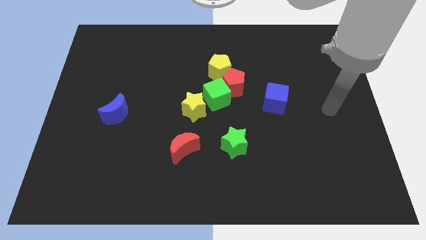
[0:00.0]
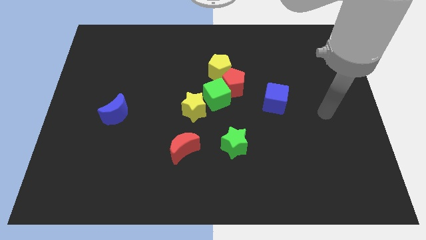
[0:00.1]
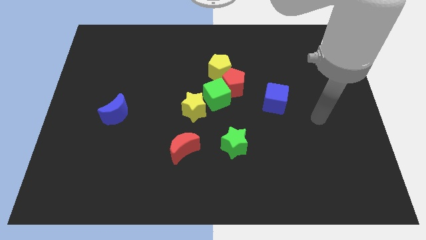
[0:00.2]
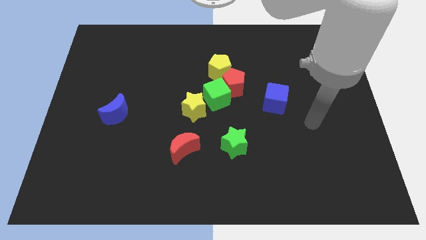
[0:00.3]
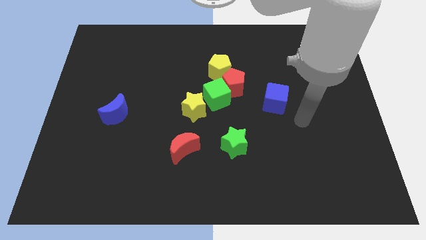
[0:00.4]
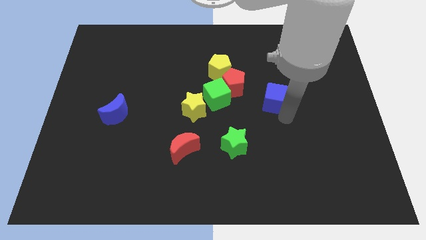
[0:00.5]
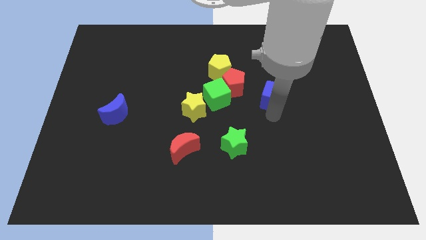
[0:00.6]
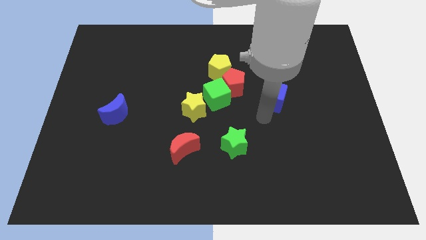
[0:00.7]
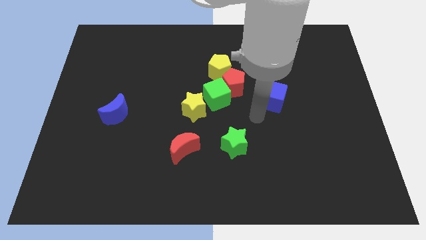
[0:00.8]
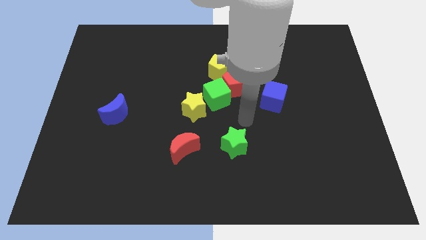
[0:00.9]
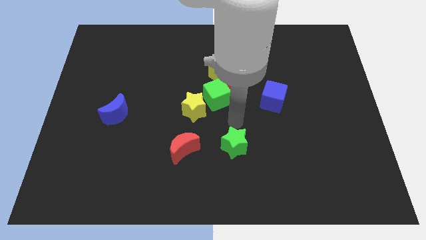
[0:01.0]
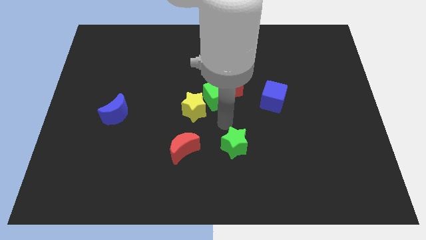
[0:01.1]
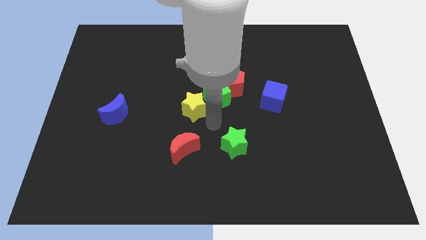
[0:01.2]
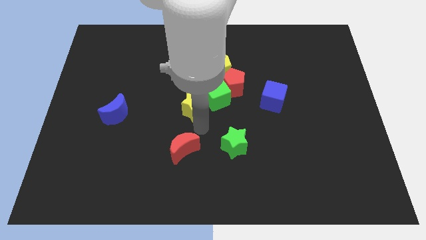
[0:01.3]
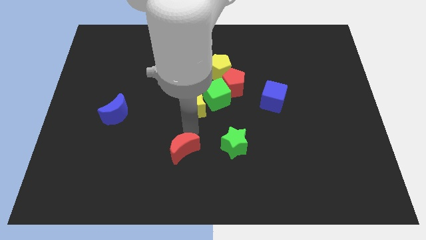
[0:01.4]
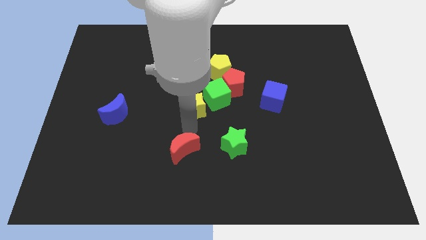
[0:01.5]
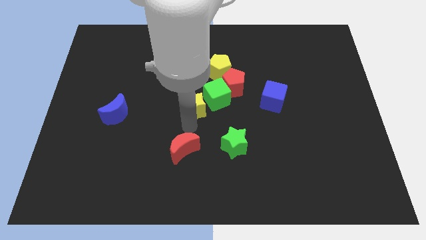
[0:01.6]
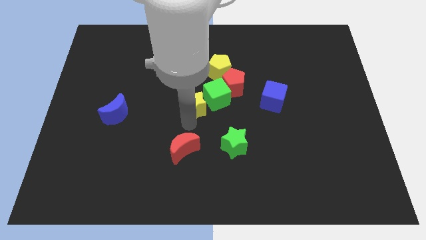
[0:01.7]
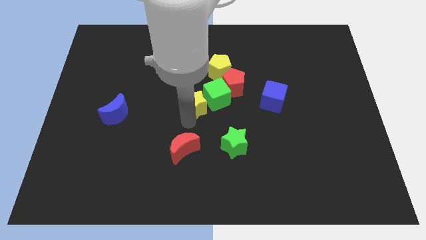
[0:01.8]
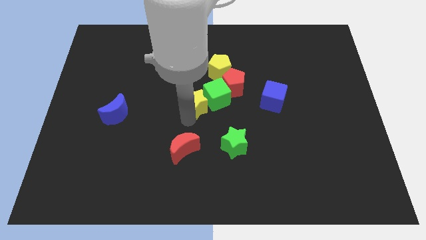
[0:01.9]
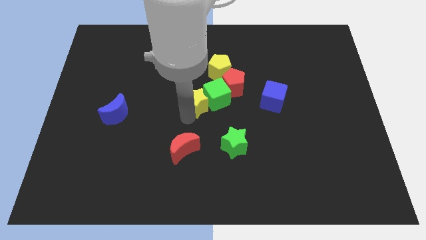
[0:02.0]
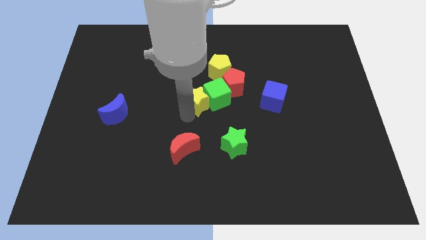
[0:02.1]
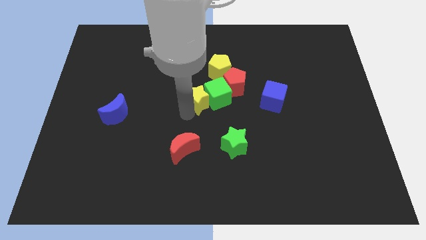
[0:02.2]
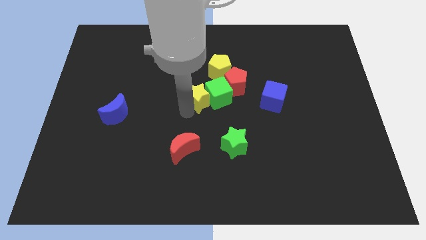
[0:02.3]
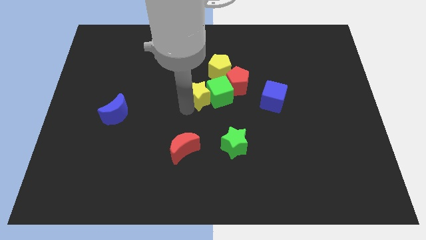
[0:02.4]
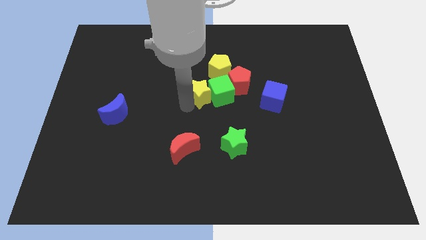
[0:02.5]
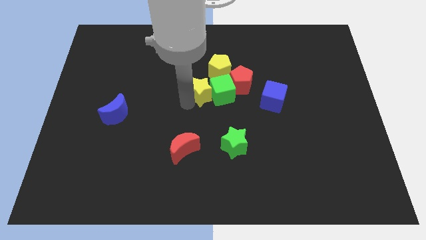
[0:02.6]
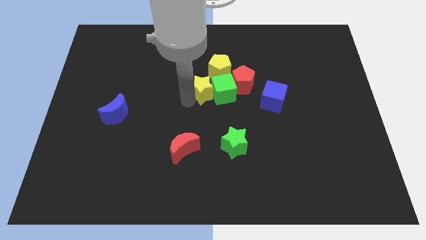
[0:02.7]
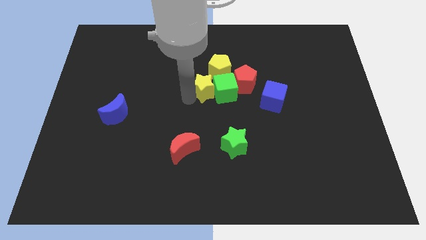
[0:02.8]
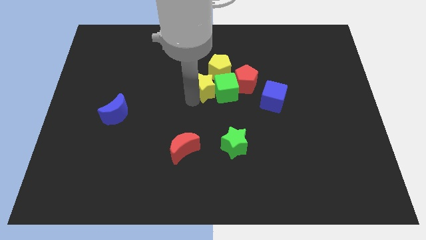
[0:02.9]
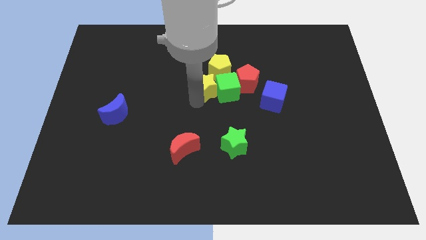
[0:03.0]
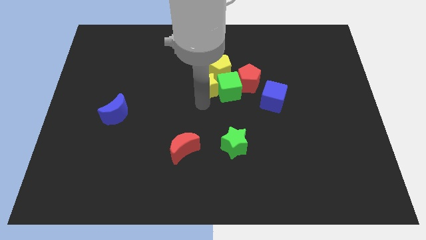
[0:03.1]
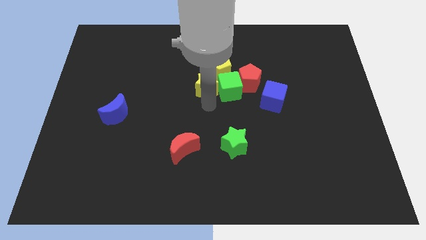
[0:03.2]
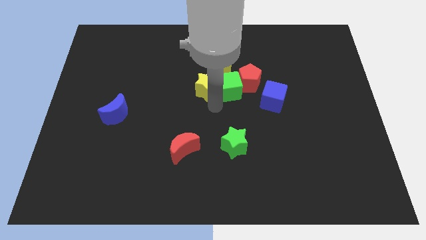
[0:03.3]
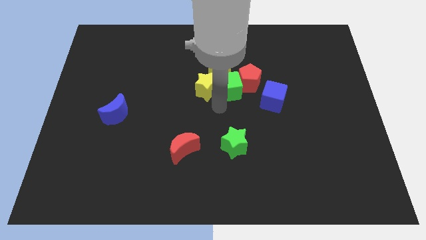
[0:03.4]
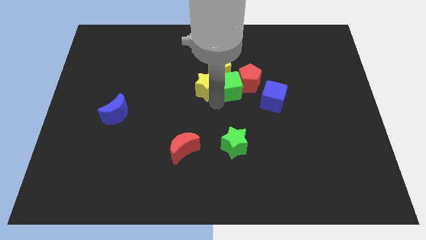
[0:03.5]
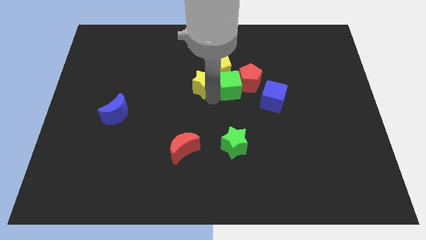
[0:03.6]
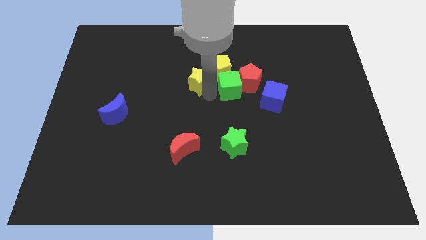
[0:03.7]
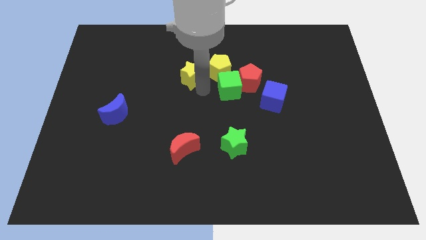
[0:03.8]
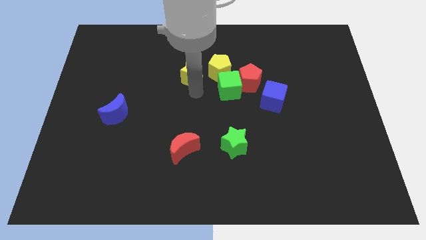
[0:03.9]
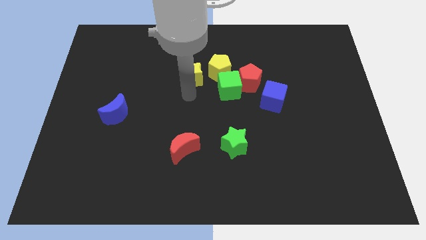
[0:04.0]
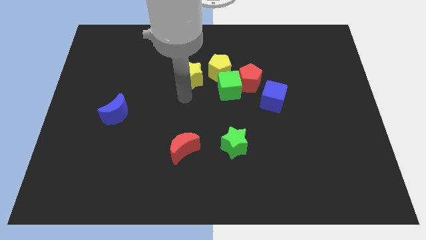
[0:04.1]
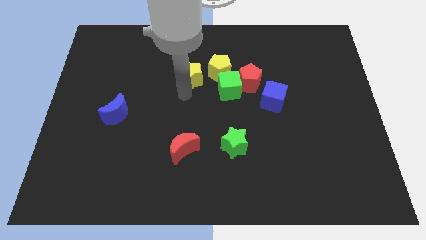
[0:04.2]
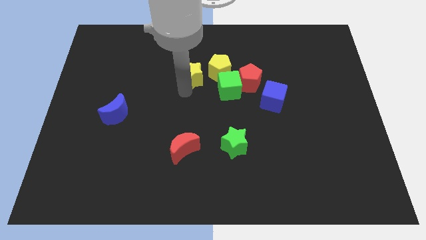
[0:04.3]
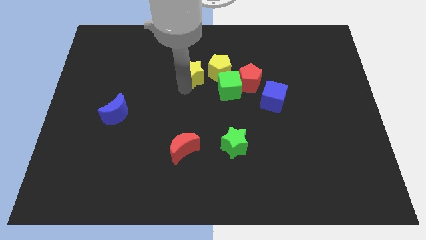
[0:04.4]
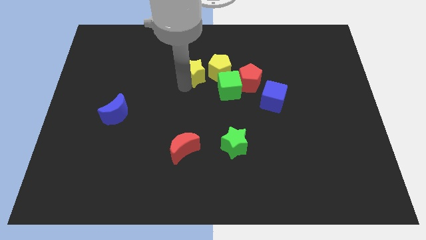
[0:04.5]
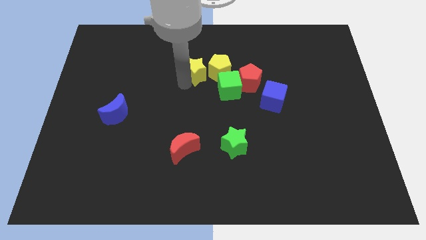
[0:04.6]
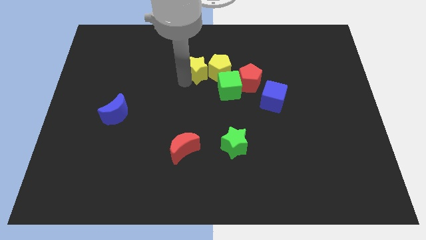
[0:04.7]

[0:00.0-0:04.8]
move the yellow star to the top left side of the yellow pentagon

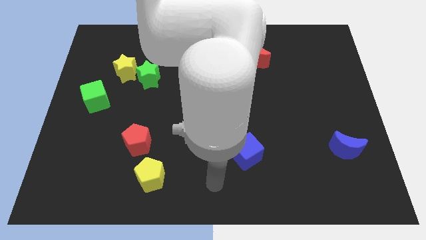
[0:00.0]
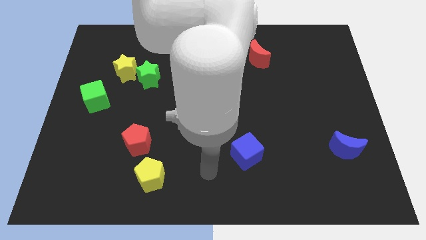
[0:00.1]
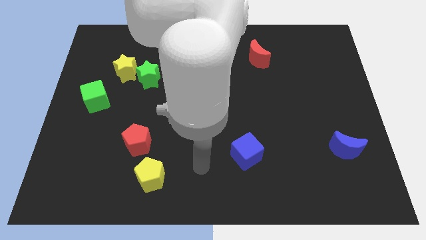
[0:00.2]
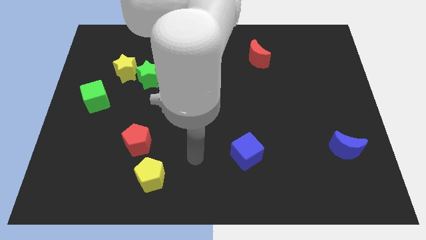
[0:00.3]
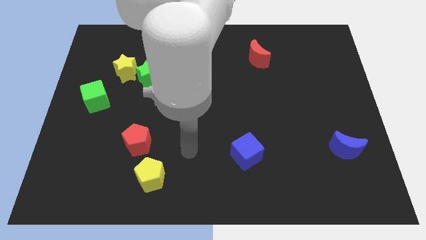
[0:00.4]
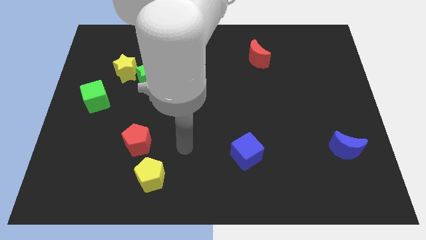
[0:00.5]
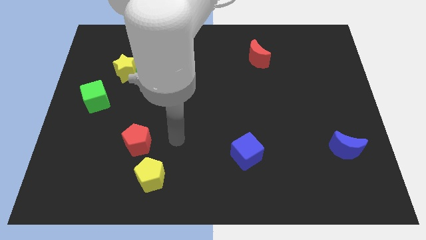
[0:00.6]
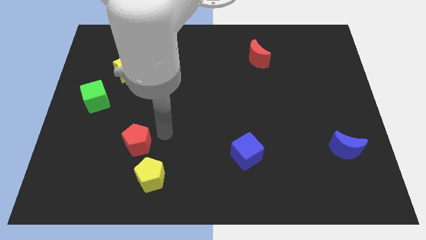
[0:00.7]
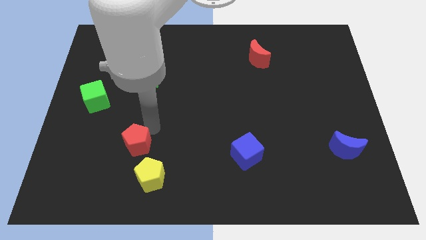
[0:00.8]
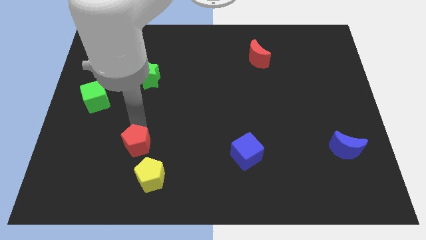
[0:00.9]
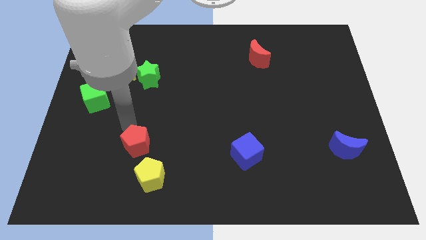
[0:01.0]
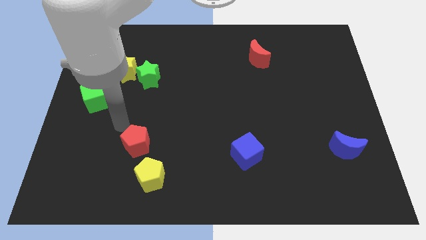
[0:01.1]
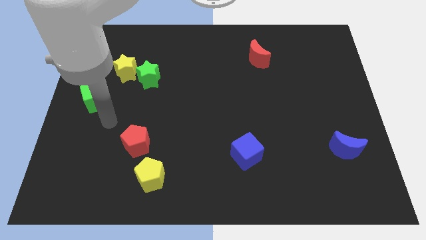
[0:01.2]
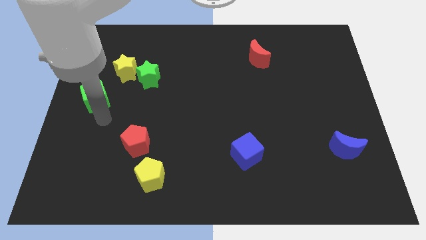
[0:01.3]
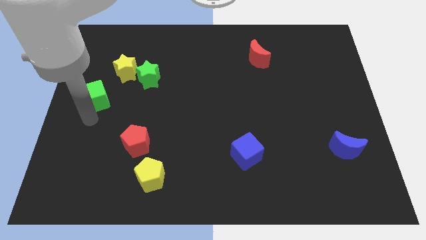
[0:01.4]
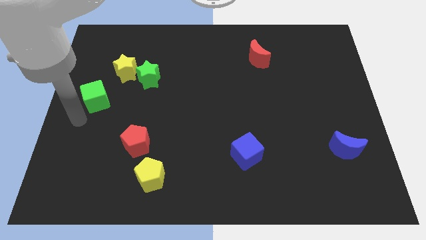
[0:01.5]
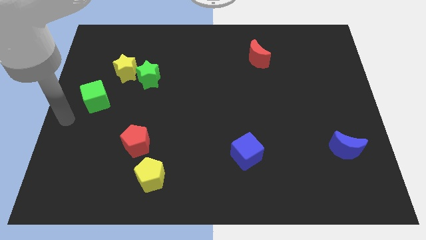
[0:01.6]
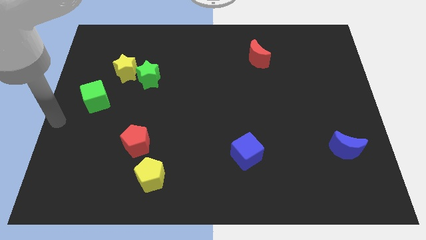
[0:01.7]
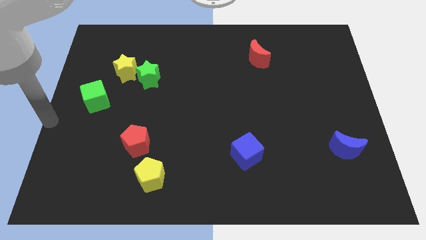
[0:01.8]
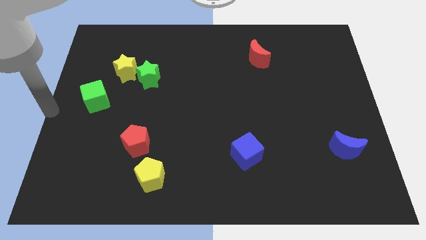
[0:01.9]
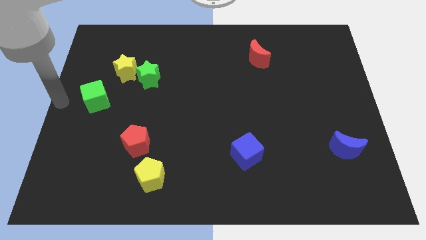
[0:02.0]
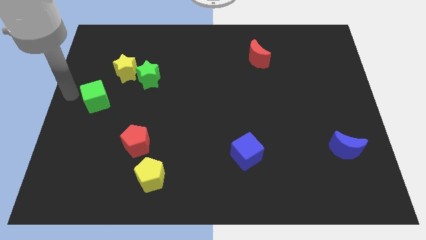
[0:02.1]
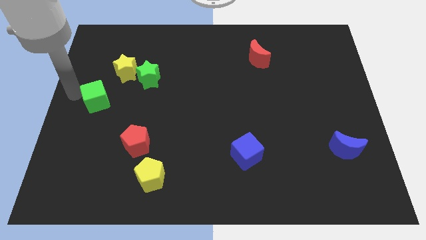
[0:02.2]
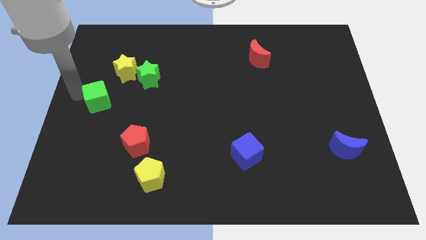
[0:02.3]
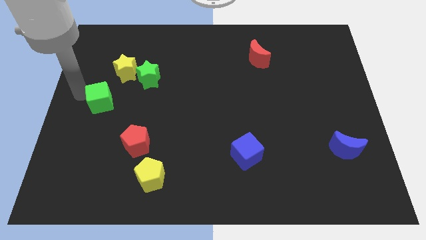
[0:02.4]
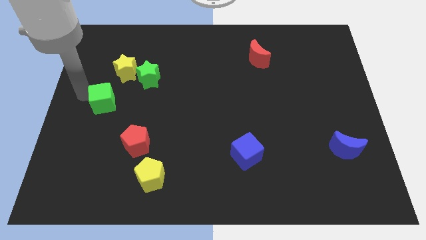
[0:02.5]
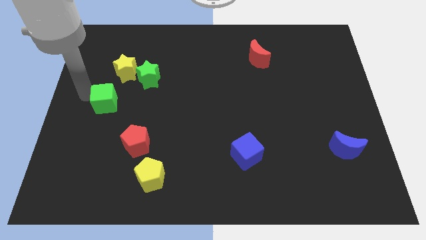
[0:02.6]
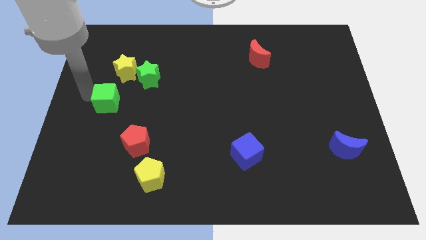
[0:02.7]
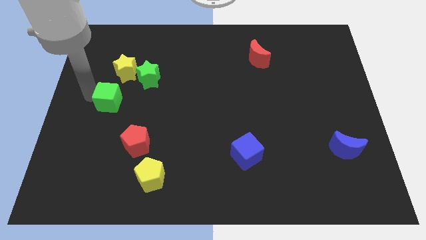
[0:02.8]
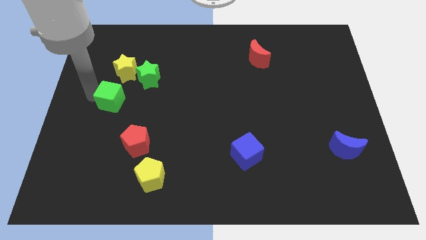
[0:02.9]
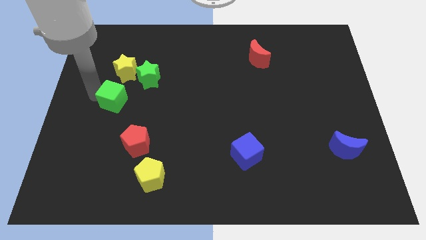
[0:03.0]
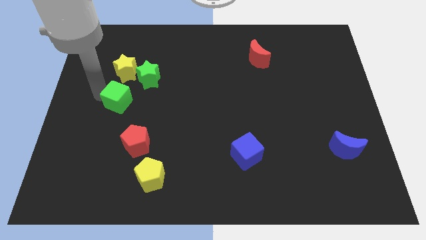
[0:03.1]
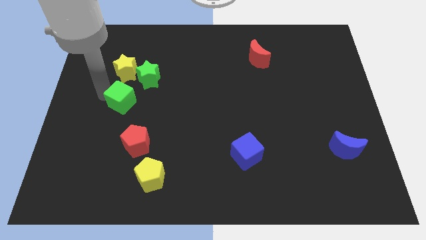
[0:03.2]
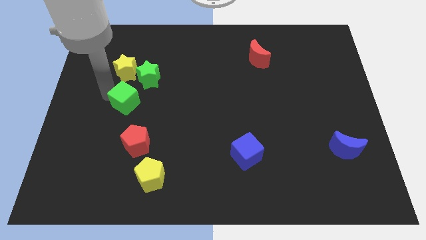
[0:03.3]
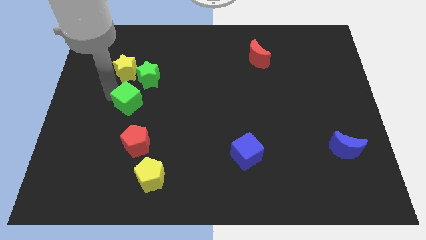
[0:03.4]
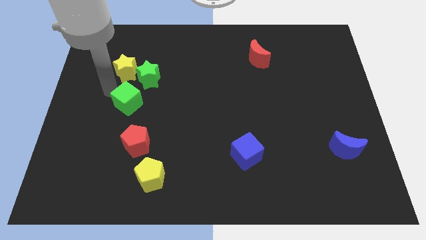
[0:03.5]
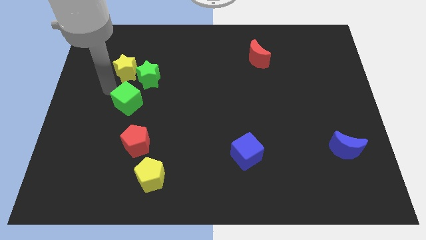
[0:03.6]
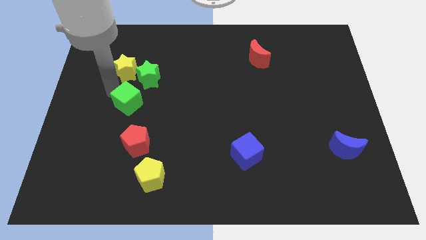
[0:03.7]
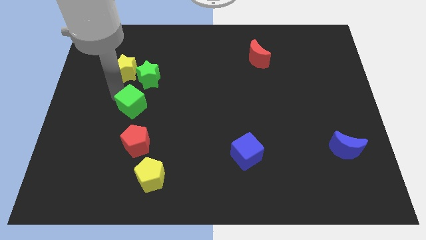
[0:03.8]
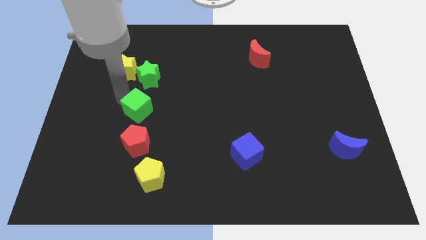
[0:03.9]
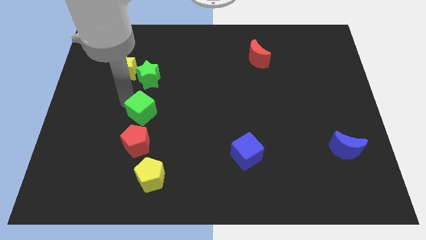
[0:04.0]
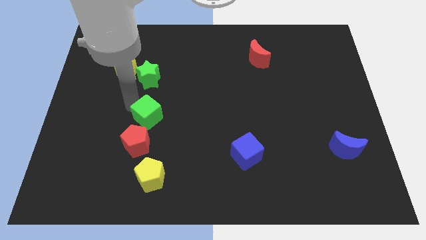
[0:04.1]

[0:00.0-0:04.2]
move the green cube to the top right of the red pentagon
